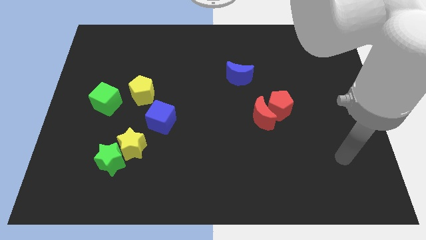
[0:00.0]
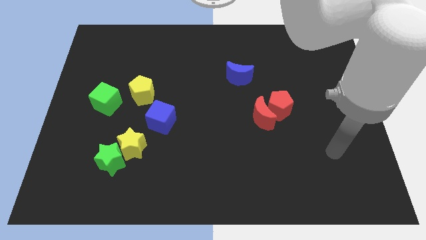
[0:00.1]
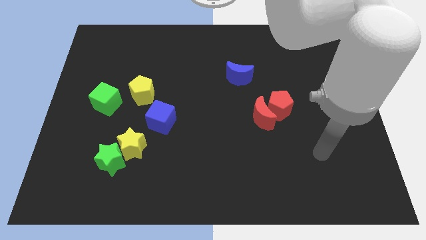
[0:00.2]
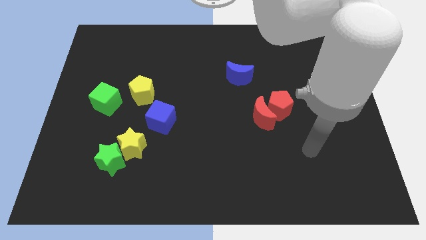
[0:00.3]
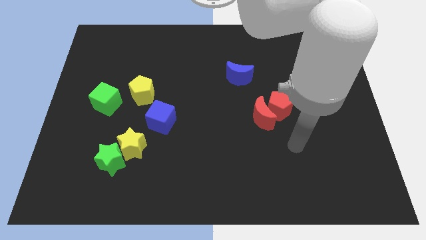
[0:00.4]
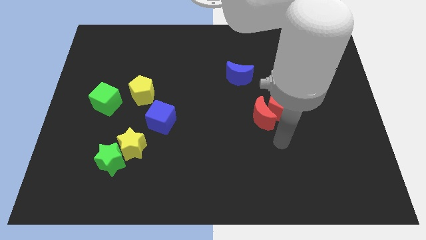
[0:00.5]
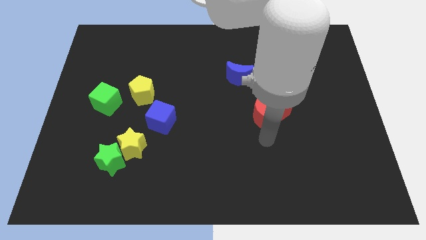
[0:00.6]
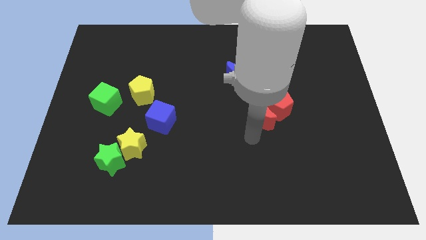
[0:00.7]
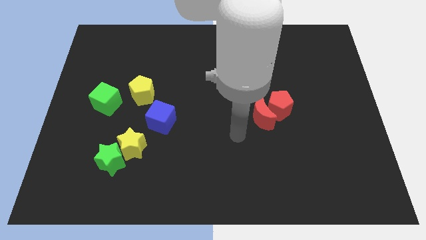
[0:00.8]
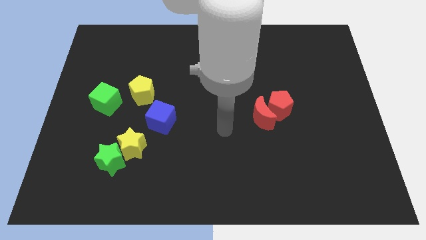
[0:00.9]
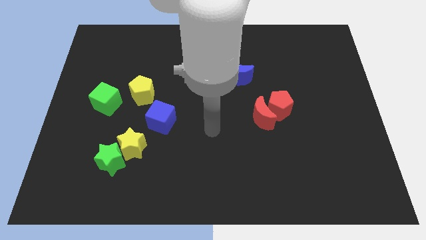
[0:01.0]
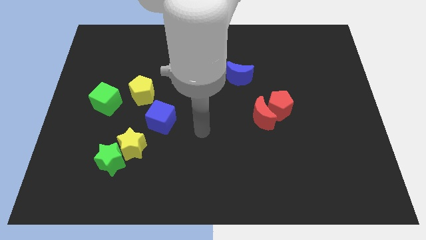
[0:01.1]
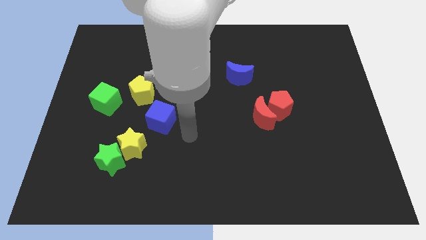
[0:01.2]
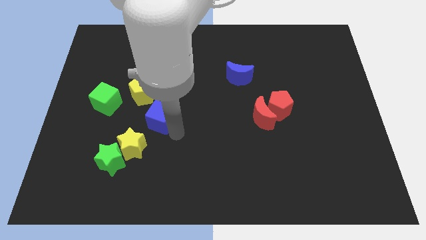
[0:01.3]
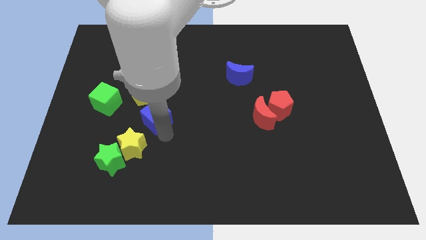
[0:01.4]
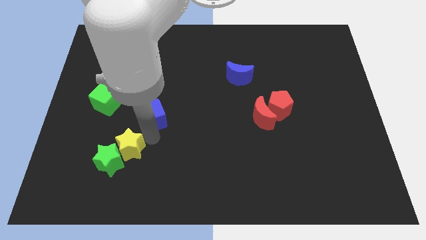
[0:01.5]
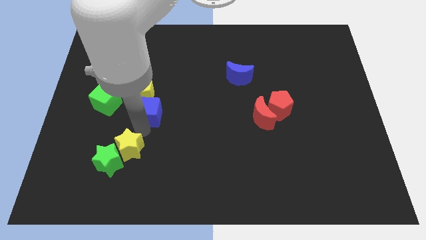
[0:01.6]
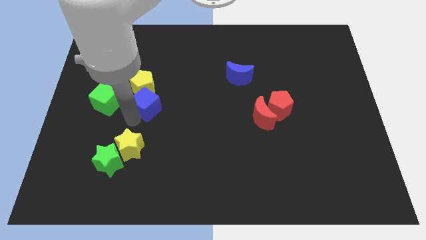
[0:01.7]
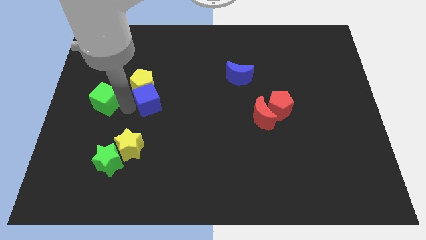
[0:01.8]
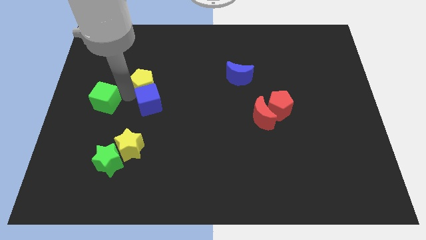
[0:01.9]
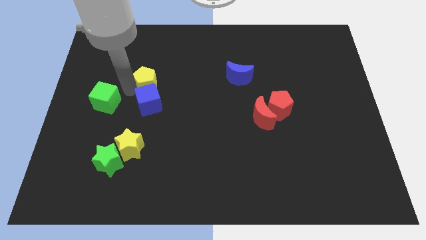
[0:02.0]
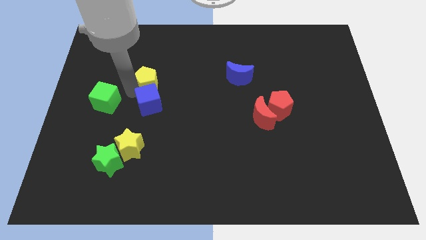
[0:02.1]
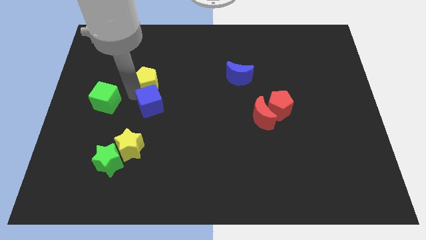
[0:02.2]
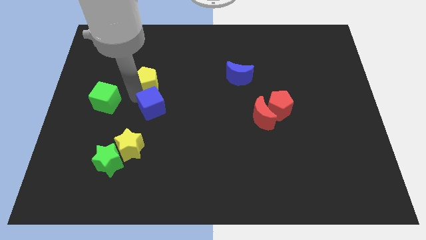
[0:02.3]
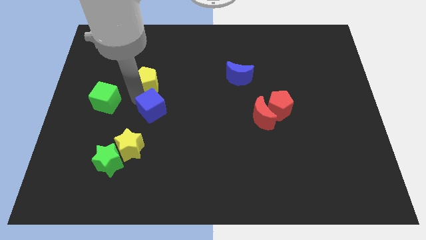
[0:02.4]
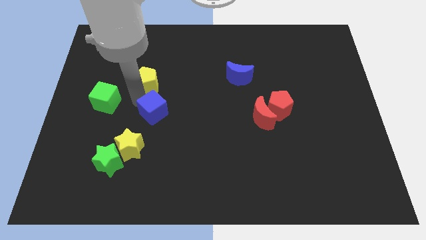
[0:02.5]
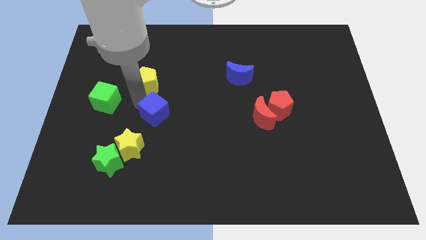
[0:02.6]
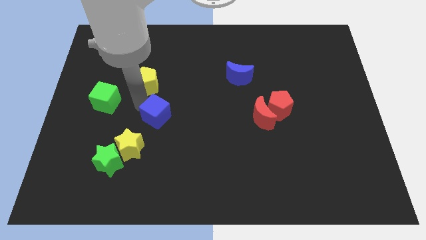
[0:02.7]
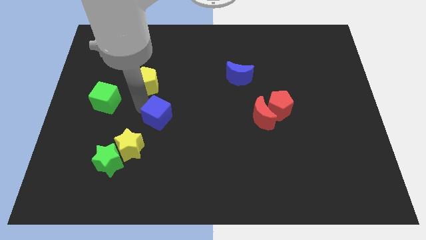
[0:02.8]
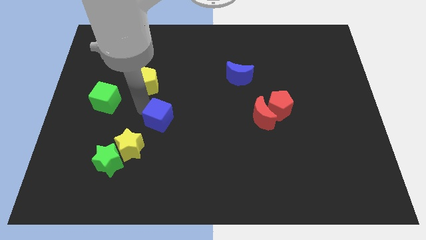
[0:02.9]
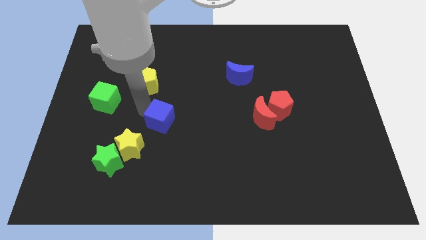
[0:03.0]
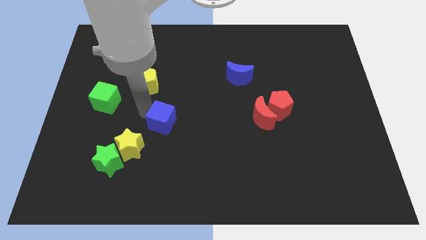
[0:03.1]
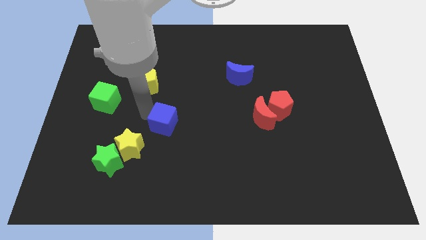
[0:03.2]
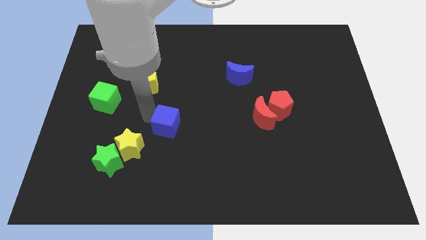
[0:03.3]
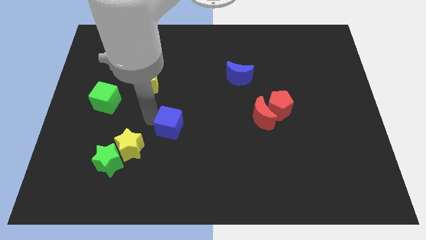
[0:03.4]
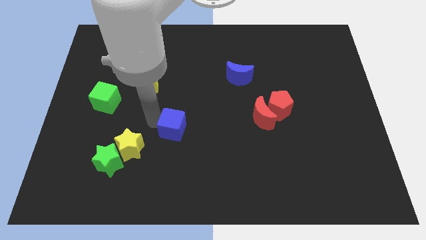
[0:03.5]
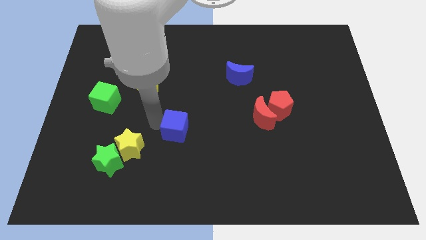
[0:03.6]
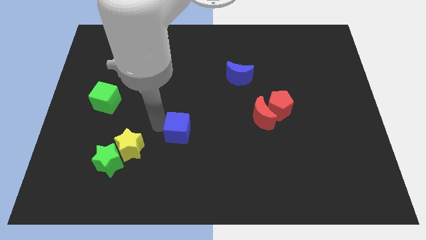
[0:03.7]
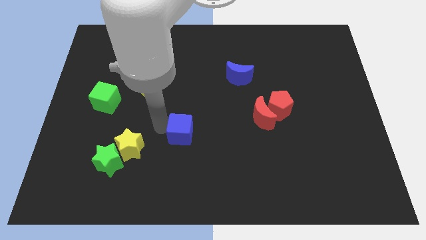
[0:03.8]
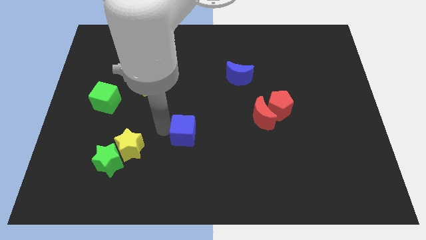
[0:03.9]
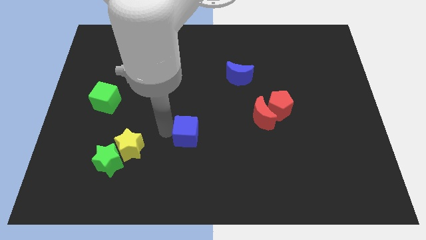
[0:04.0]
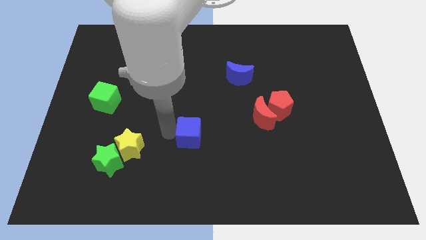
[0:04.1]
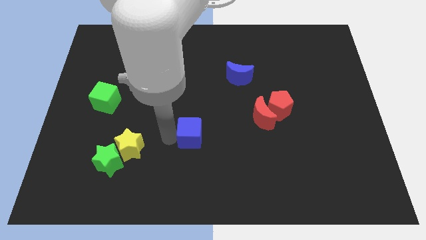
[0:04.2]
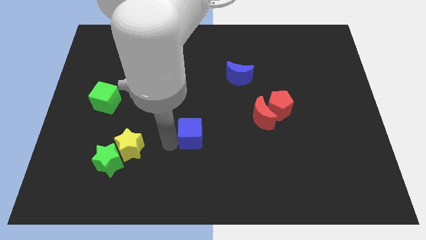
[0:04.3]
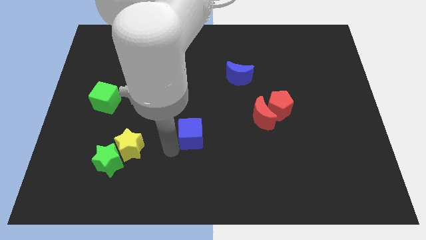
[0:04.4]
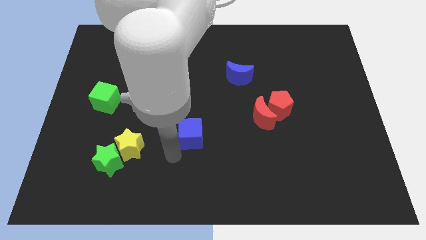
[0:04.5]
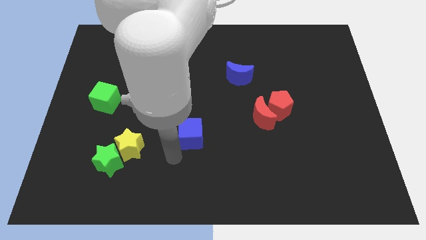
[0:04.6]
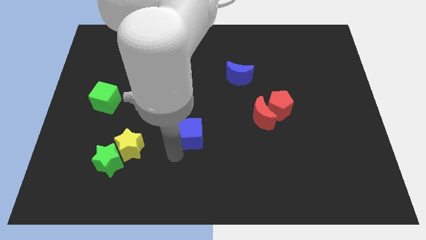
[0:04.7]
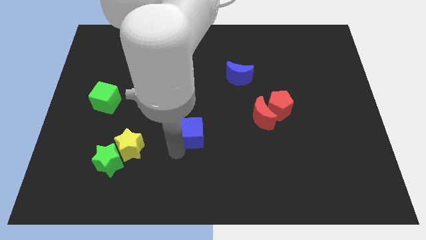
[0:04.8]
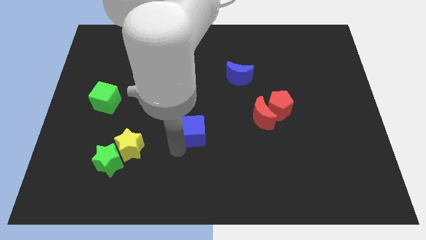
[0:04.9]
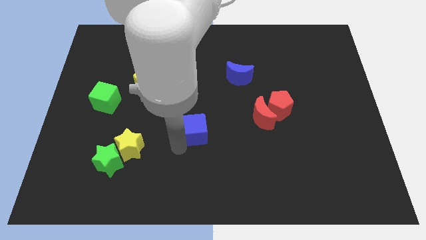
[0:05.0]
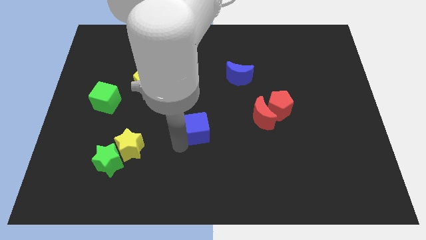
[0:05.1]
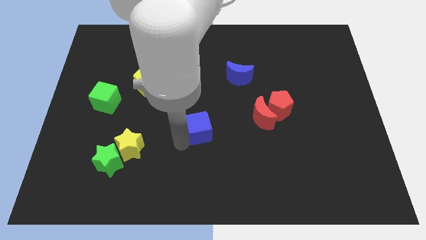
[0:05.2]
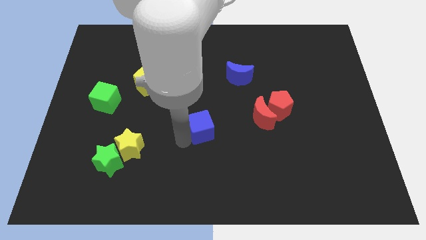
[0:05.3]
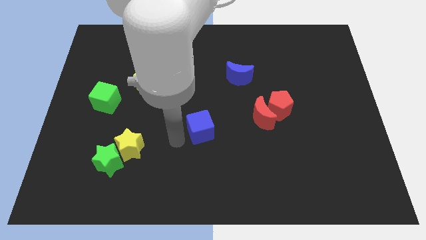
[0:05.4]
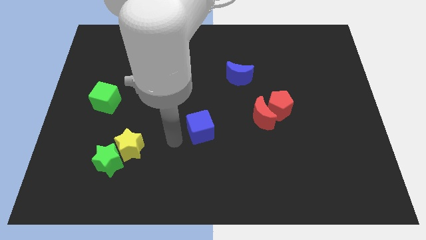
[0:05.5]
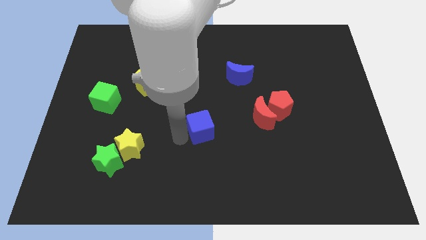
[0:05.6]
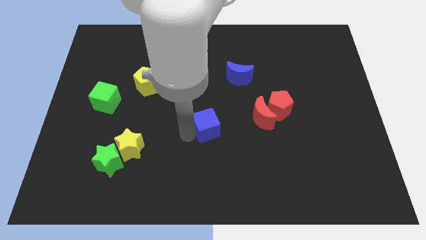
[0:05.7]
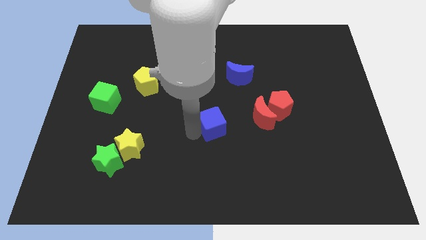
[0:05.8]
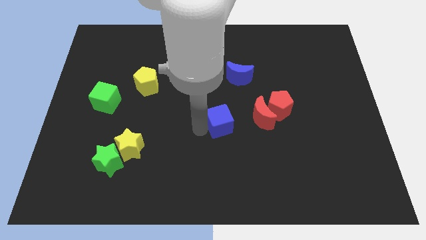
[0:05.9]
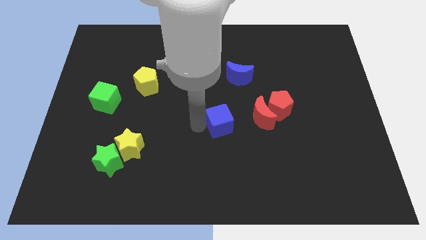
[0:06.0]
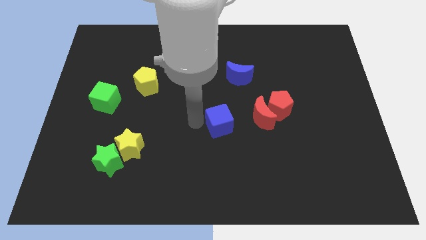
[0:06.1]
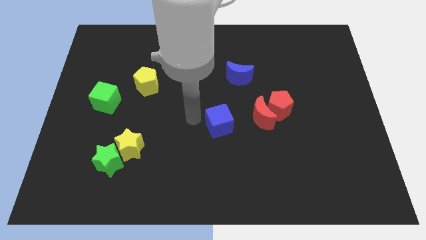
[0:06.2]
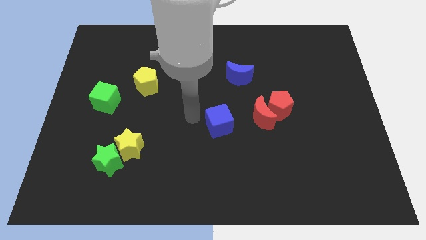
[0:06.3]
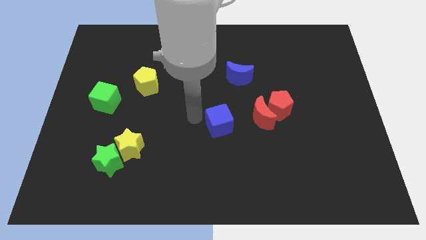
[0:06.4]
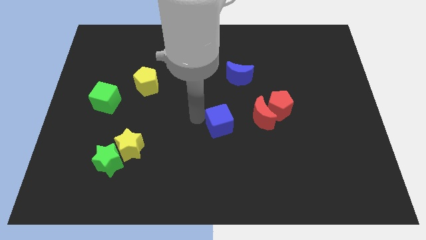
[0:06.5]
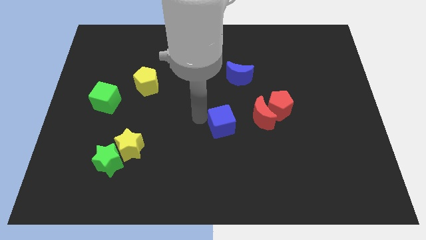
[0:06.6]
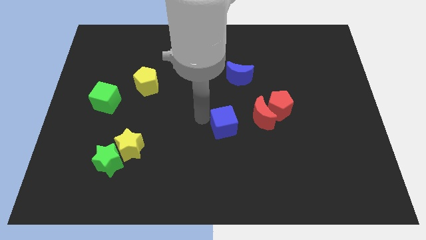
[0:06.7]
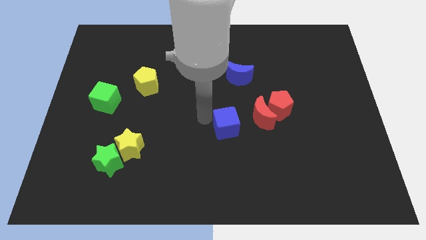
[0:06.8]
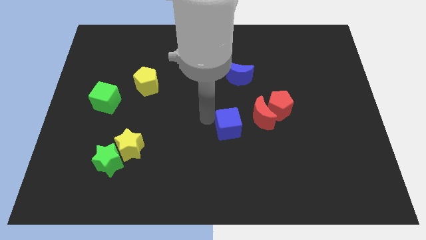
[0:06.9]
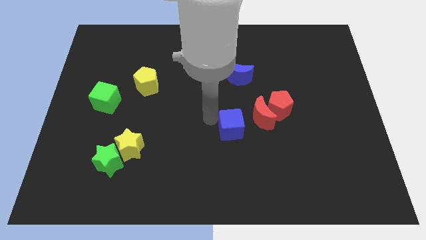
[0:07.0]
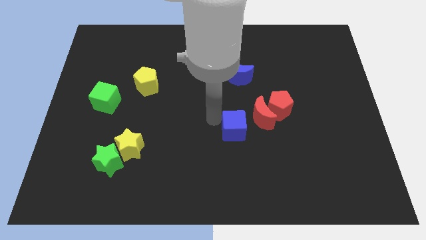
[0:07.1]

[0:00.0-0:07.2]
move the blue cube to the bottom left of the red pentagon

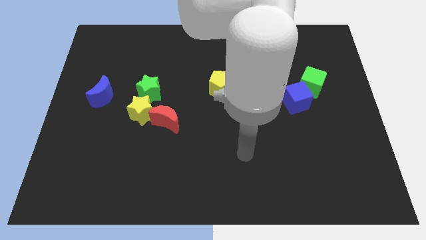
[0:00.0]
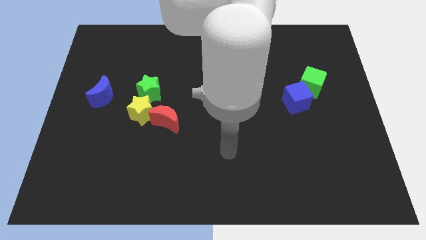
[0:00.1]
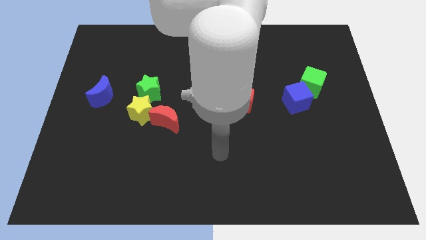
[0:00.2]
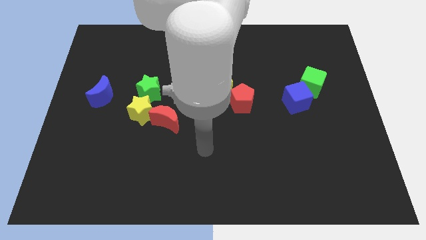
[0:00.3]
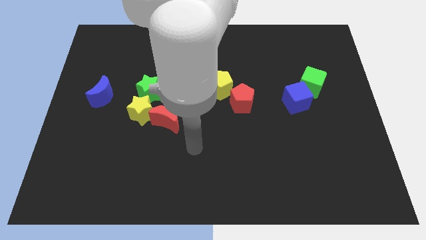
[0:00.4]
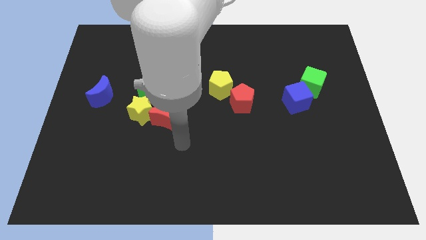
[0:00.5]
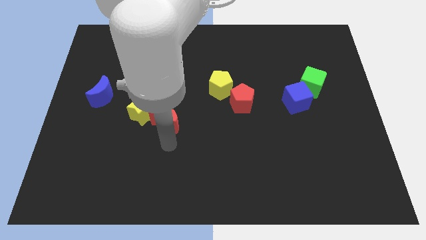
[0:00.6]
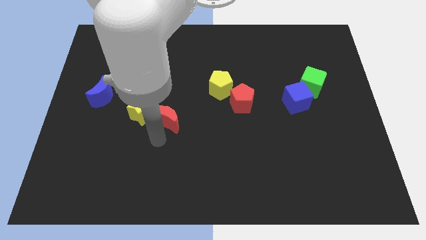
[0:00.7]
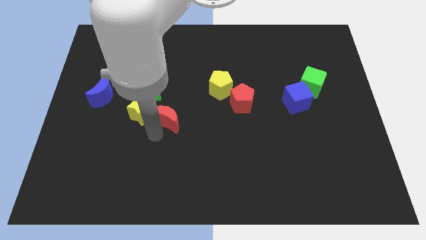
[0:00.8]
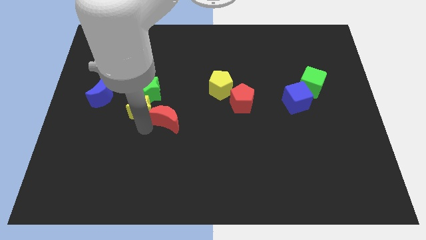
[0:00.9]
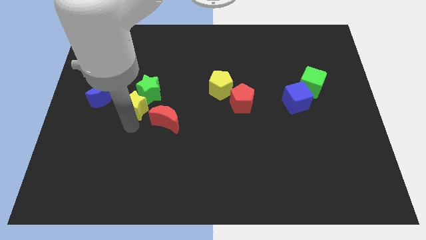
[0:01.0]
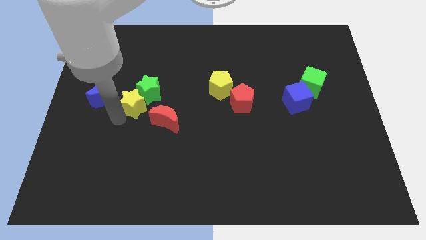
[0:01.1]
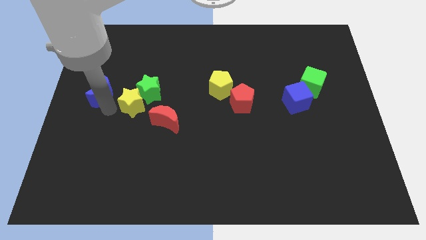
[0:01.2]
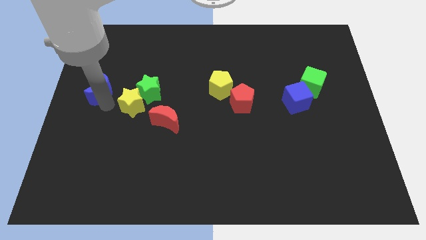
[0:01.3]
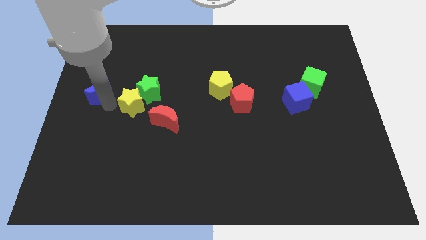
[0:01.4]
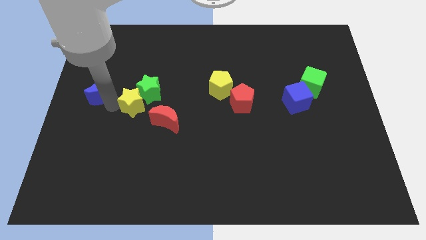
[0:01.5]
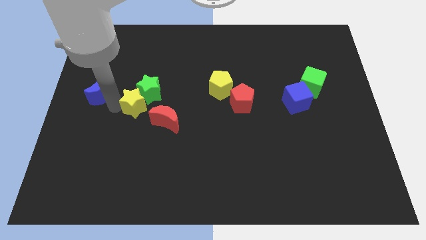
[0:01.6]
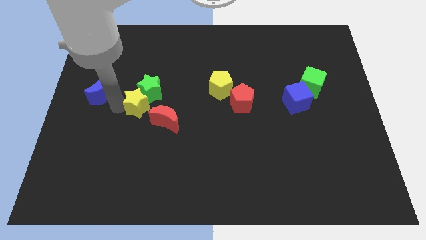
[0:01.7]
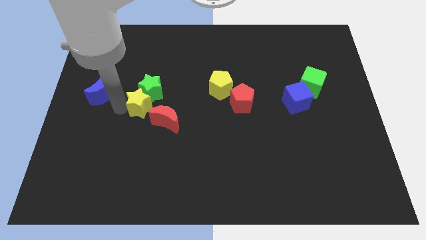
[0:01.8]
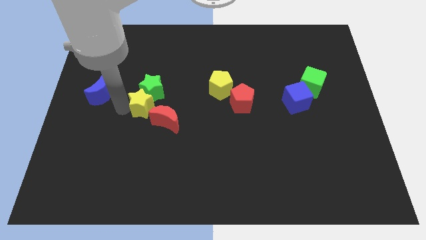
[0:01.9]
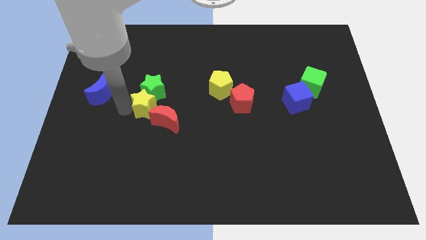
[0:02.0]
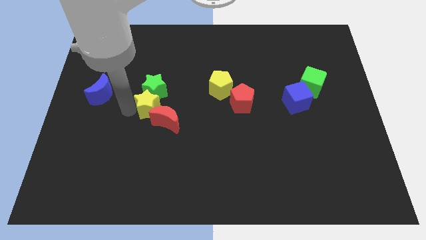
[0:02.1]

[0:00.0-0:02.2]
put the yellow star above the red moon
